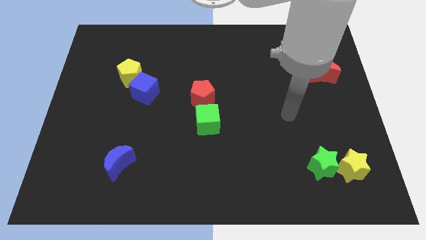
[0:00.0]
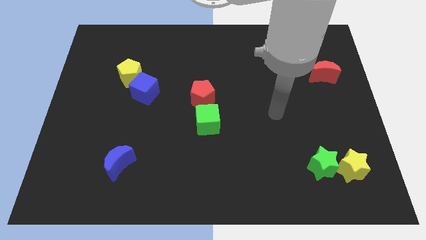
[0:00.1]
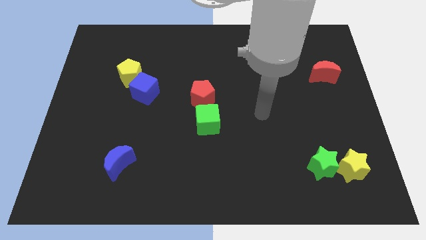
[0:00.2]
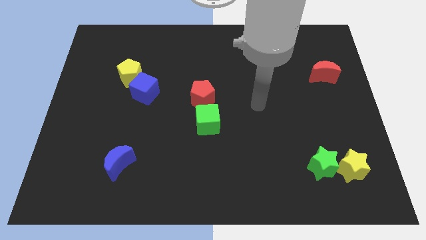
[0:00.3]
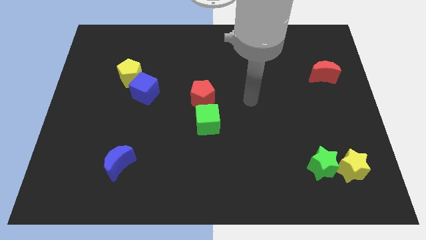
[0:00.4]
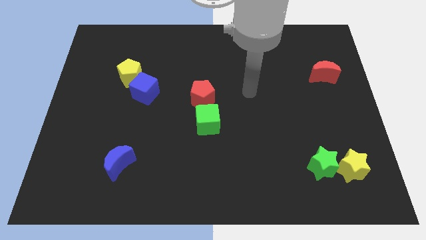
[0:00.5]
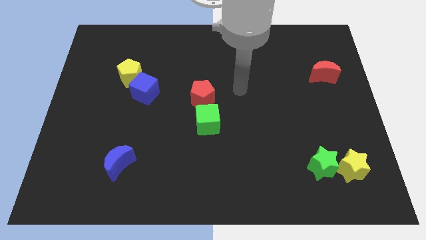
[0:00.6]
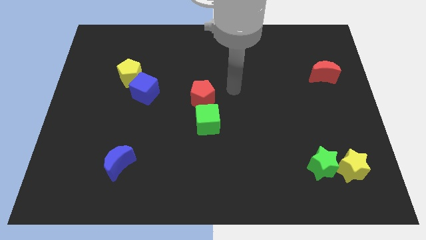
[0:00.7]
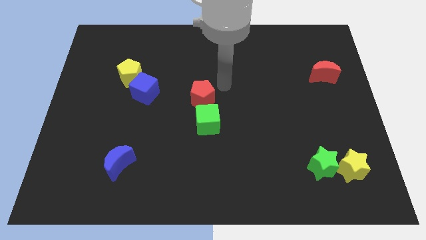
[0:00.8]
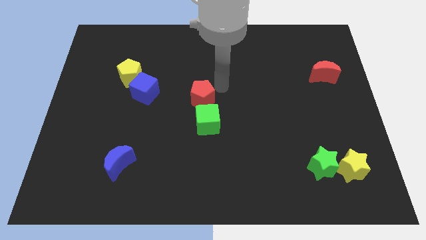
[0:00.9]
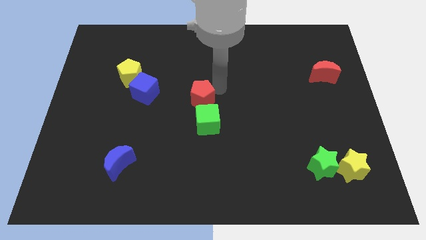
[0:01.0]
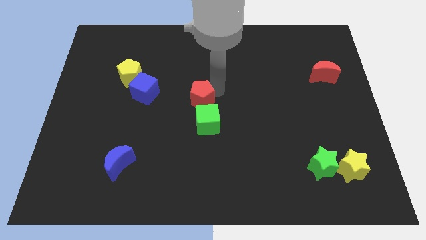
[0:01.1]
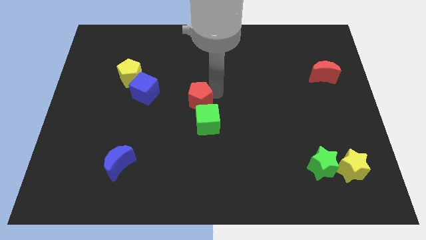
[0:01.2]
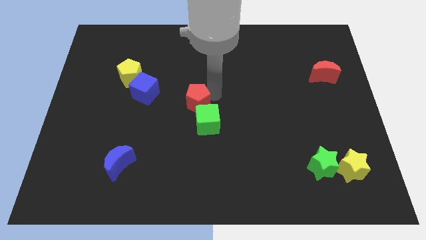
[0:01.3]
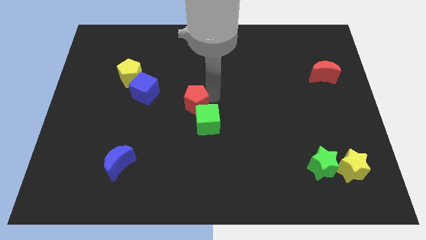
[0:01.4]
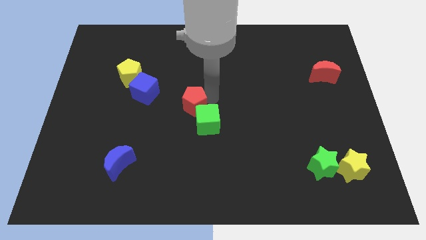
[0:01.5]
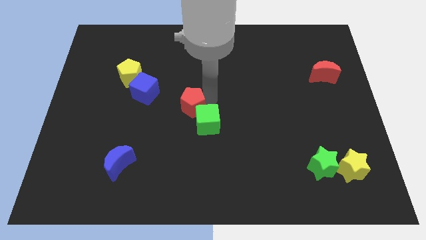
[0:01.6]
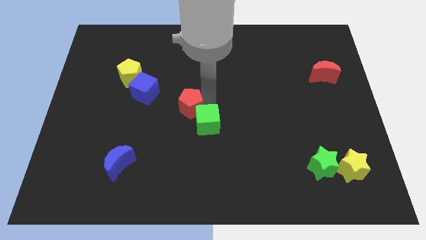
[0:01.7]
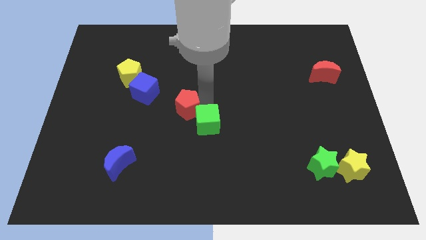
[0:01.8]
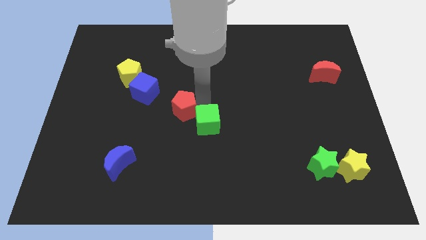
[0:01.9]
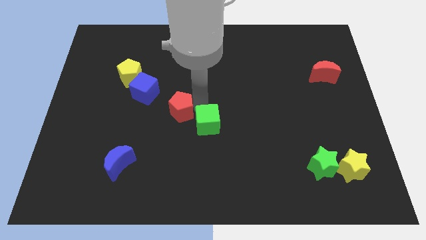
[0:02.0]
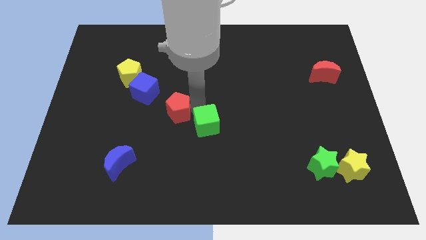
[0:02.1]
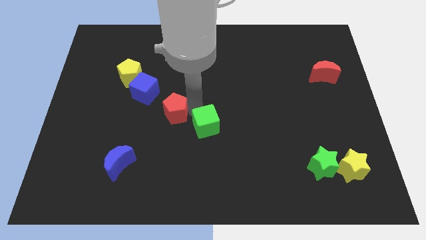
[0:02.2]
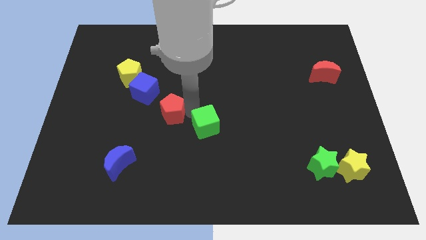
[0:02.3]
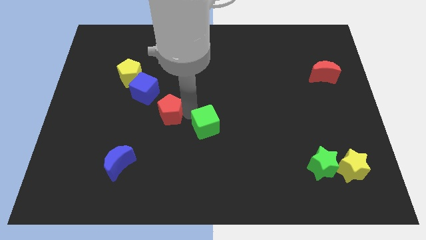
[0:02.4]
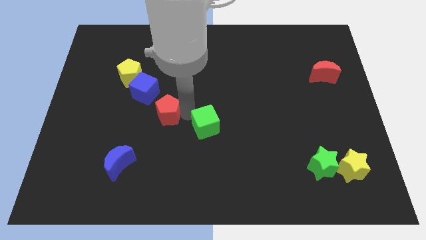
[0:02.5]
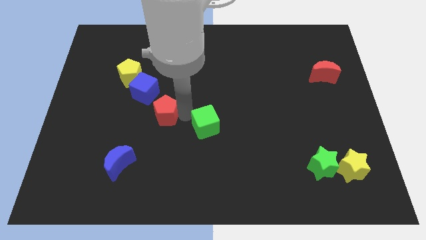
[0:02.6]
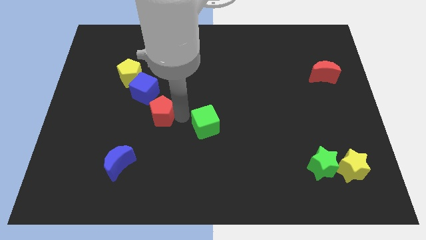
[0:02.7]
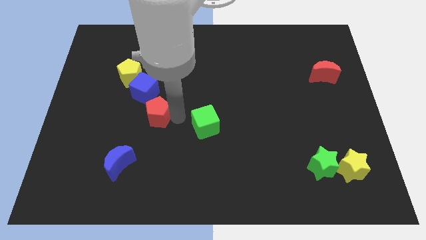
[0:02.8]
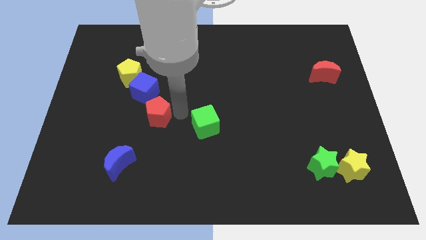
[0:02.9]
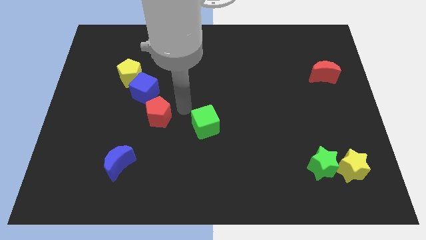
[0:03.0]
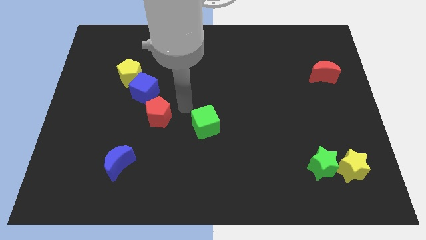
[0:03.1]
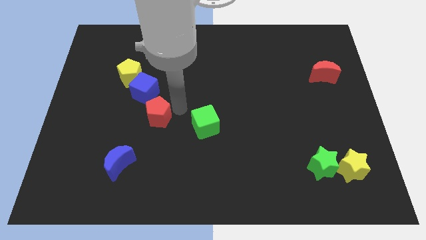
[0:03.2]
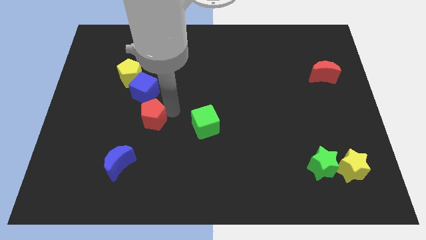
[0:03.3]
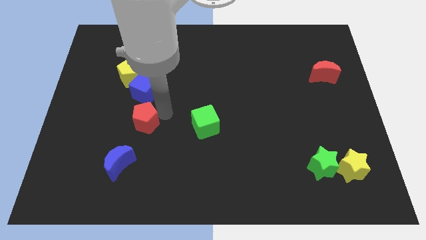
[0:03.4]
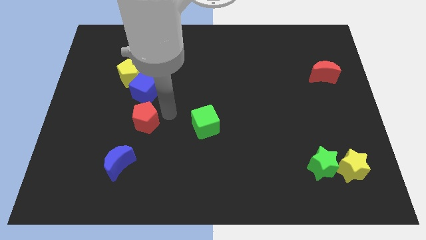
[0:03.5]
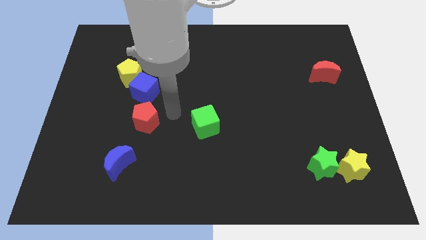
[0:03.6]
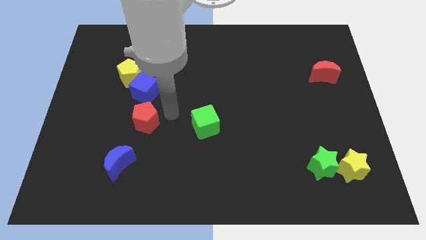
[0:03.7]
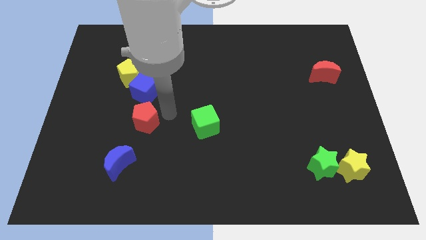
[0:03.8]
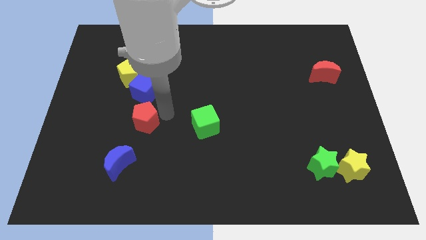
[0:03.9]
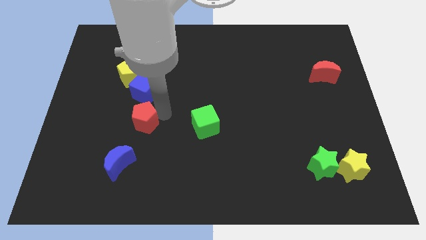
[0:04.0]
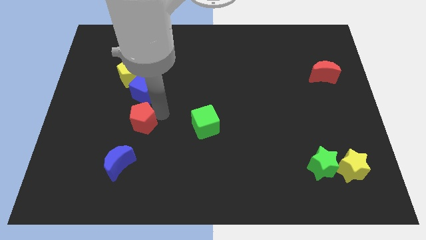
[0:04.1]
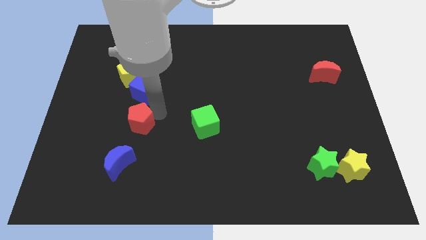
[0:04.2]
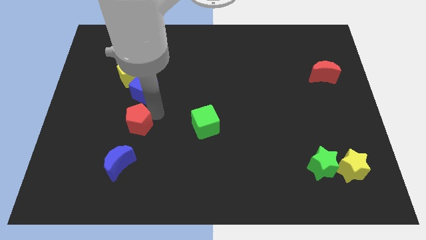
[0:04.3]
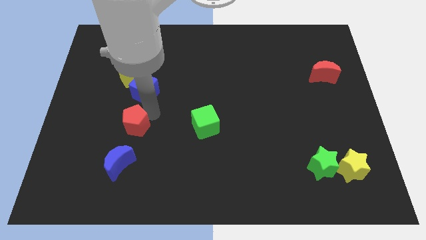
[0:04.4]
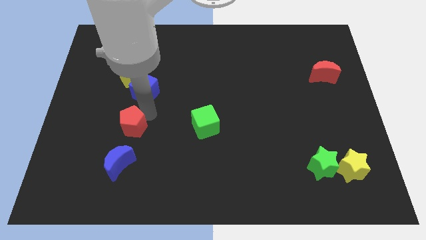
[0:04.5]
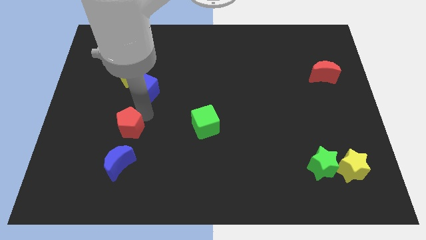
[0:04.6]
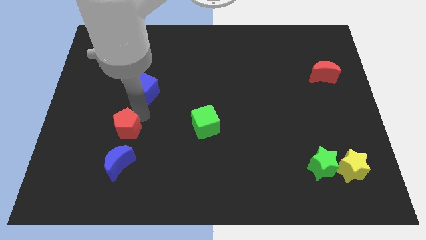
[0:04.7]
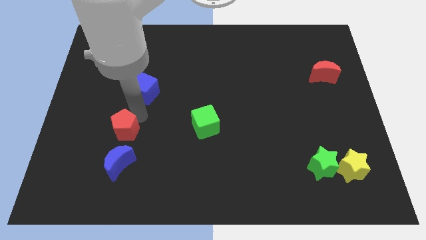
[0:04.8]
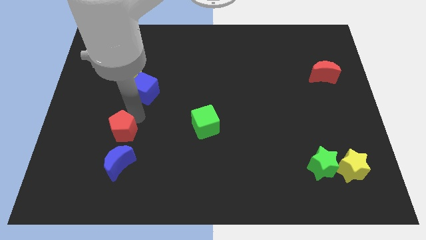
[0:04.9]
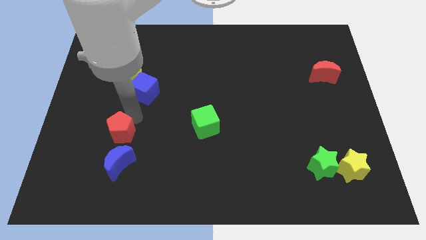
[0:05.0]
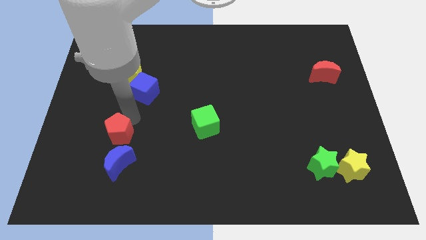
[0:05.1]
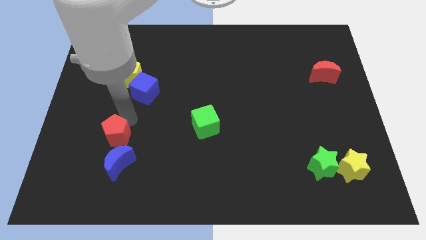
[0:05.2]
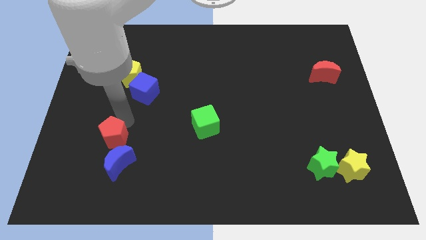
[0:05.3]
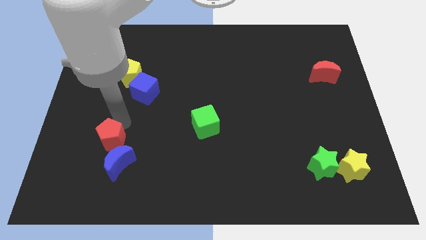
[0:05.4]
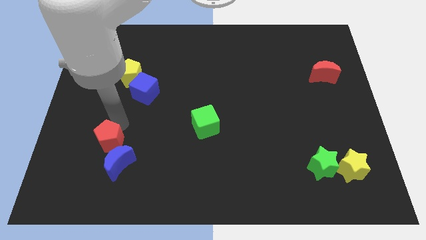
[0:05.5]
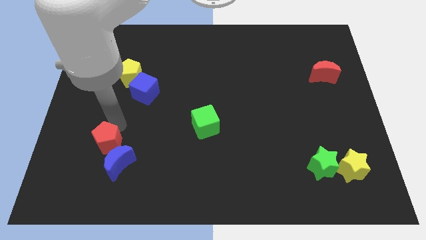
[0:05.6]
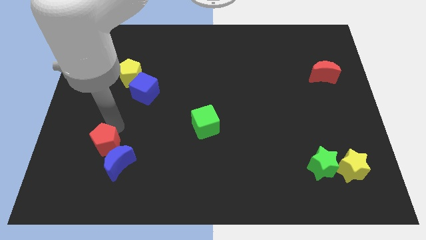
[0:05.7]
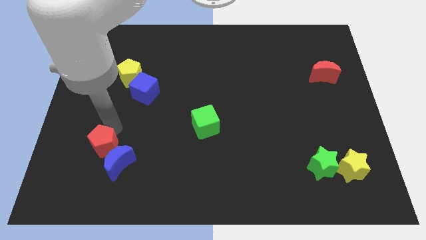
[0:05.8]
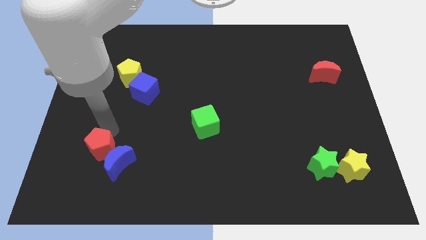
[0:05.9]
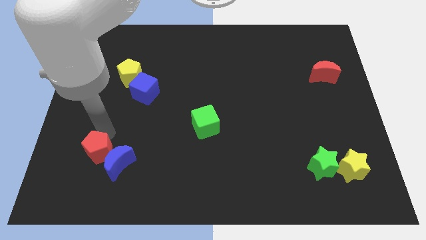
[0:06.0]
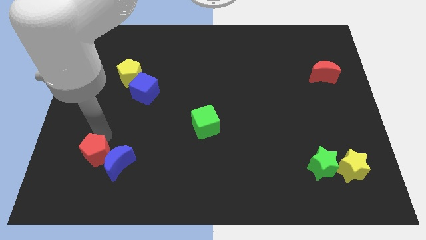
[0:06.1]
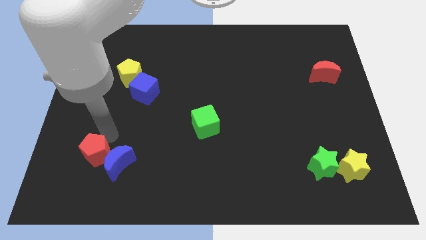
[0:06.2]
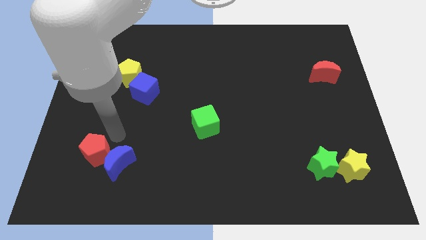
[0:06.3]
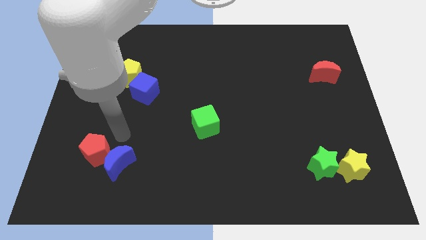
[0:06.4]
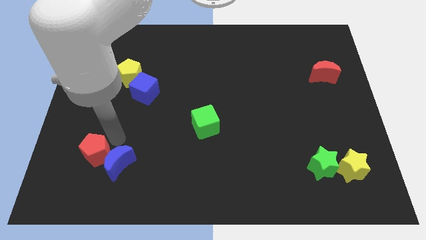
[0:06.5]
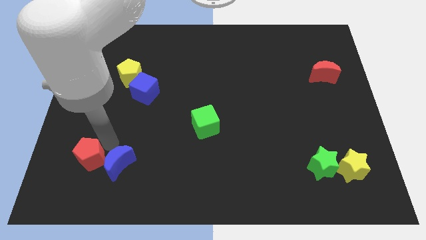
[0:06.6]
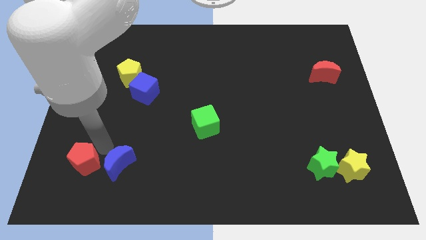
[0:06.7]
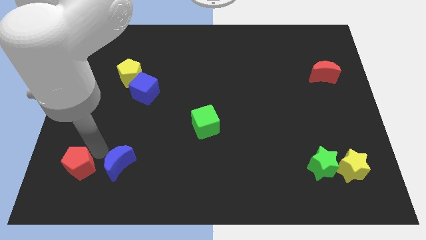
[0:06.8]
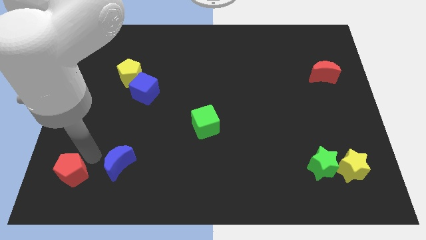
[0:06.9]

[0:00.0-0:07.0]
slide the red pentagon to the bottom left corner

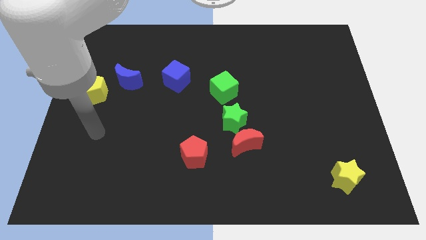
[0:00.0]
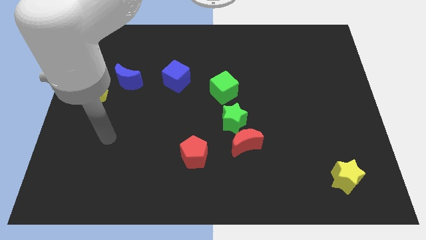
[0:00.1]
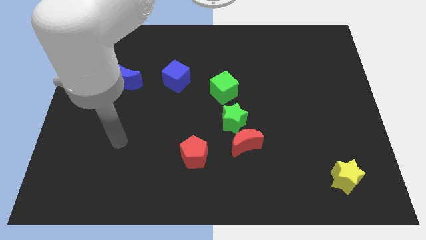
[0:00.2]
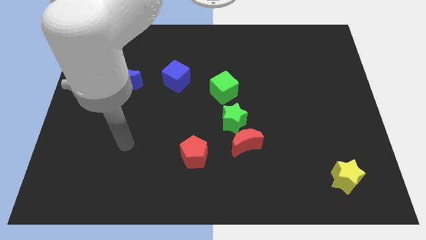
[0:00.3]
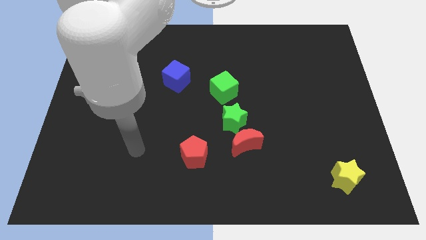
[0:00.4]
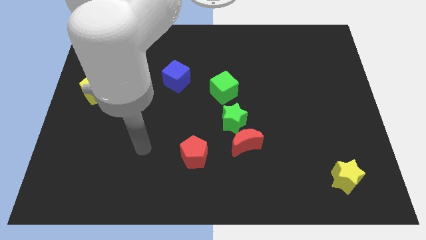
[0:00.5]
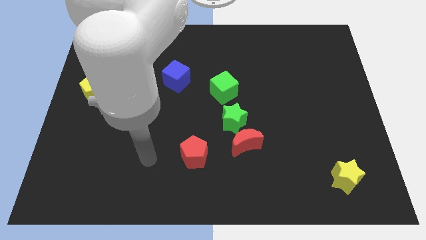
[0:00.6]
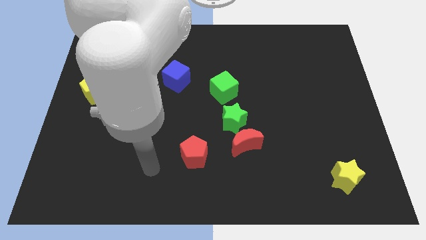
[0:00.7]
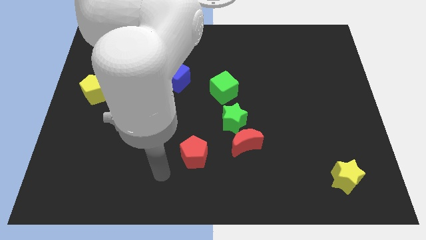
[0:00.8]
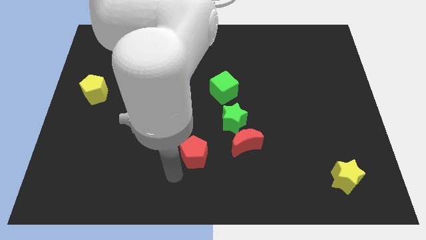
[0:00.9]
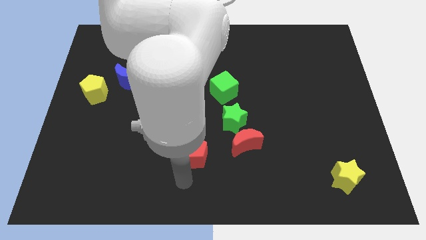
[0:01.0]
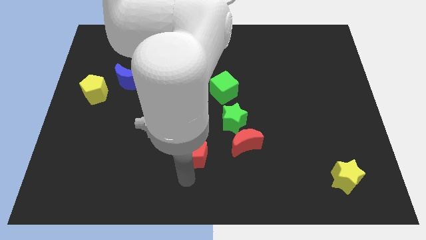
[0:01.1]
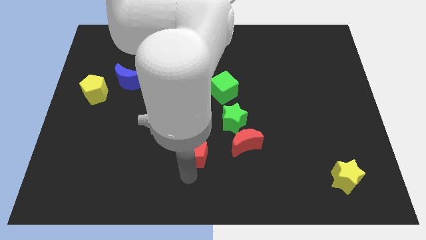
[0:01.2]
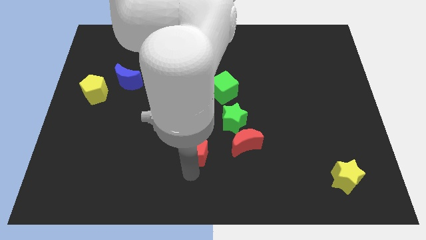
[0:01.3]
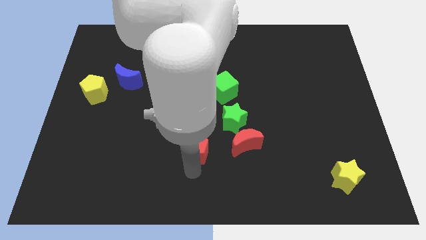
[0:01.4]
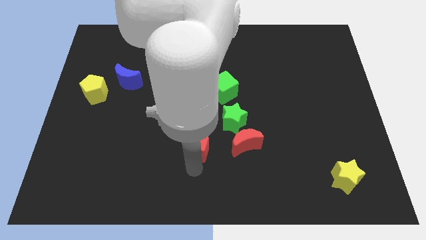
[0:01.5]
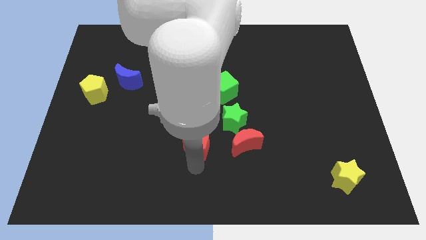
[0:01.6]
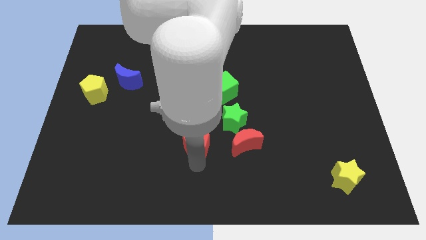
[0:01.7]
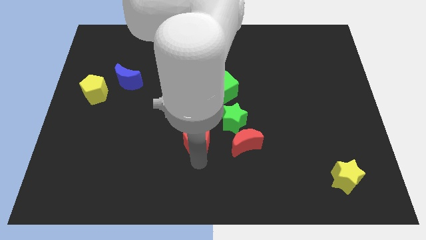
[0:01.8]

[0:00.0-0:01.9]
move the red pentagon to the middle of the board
